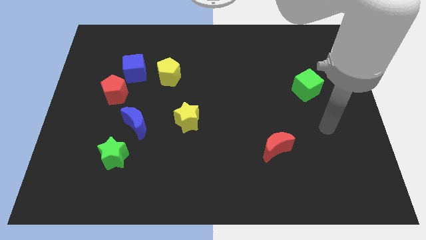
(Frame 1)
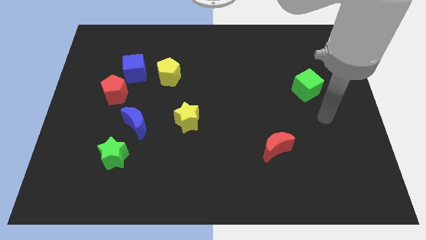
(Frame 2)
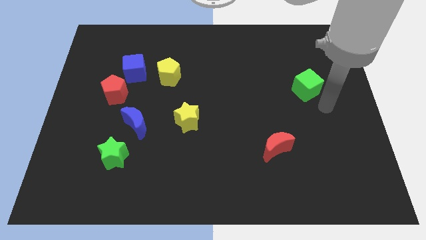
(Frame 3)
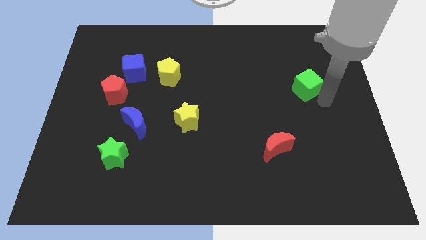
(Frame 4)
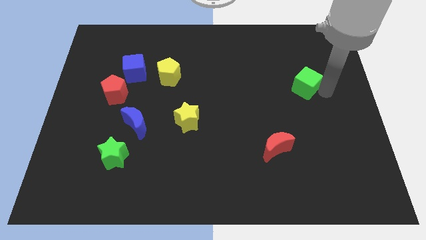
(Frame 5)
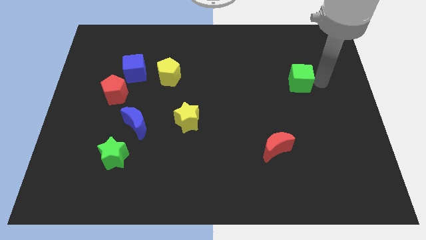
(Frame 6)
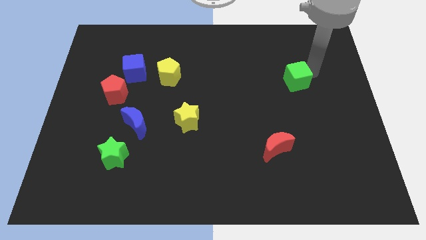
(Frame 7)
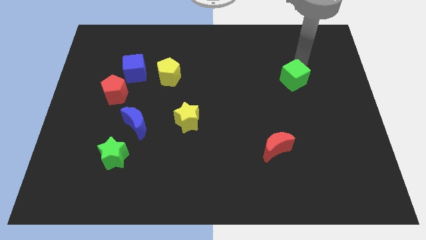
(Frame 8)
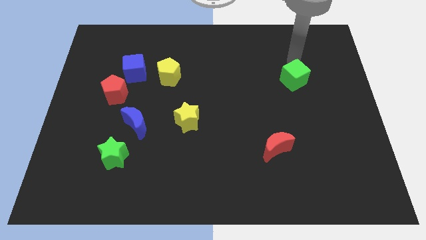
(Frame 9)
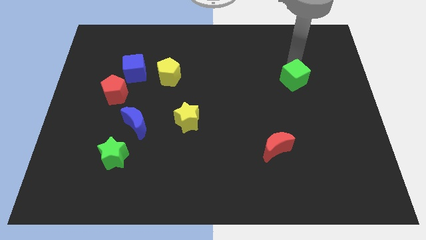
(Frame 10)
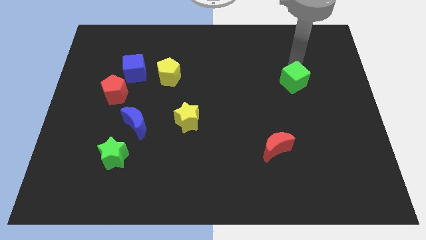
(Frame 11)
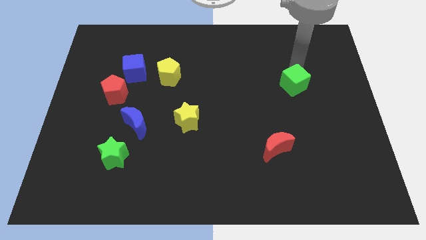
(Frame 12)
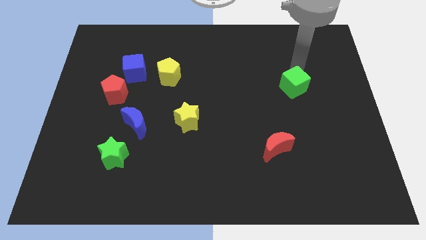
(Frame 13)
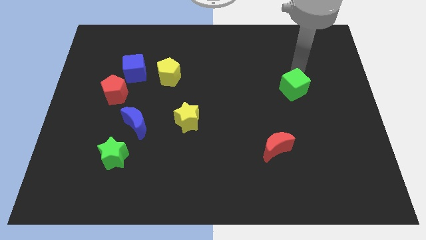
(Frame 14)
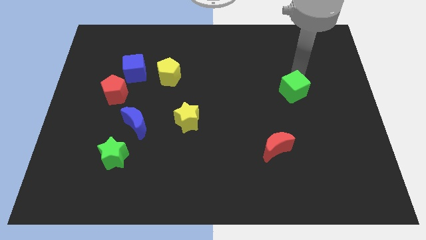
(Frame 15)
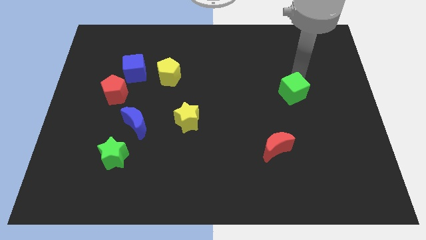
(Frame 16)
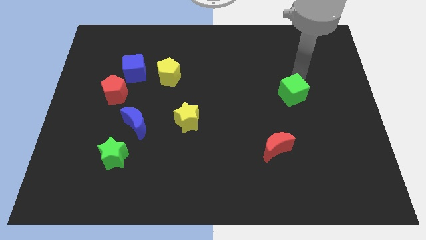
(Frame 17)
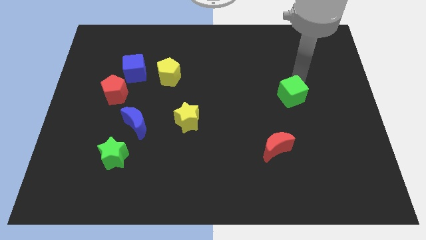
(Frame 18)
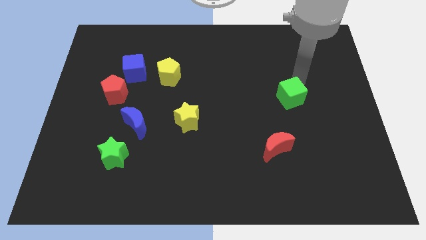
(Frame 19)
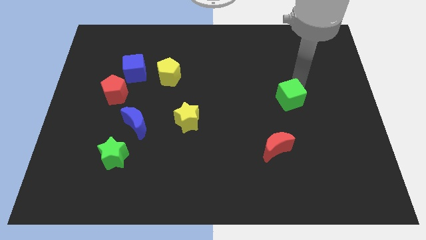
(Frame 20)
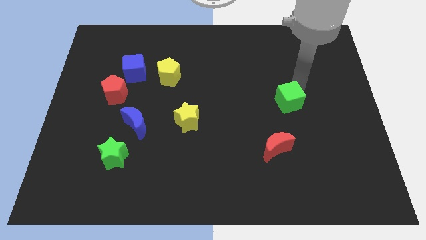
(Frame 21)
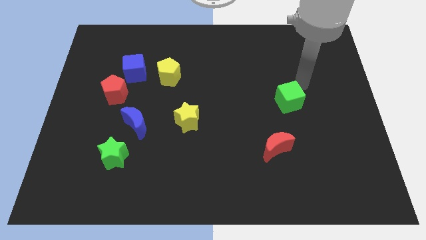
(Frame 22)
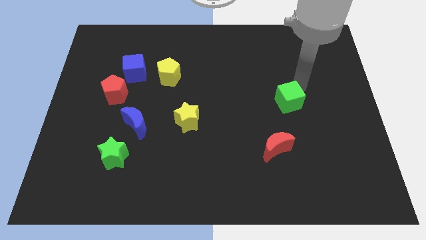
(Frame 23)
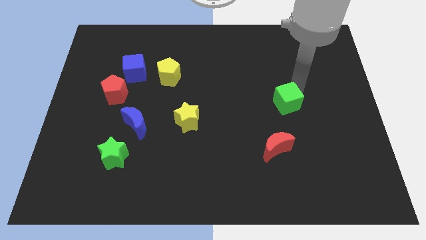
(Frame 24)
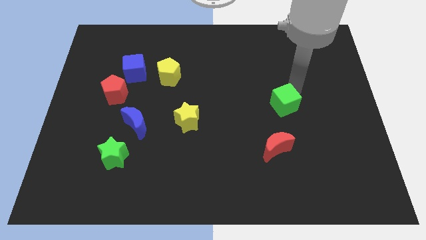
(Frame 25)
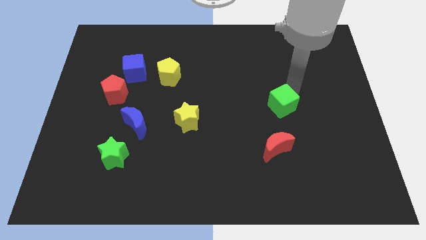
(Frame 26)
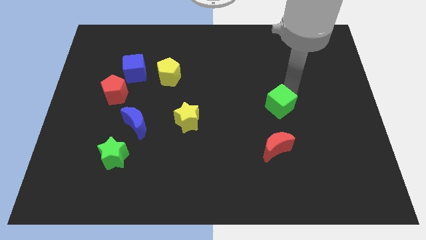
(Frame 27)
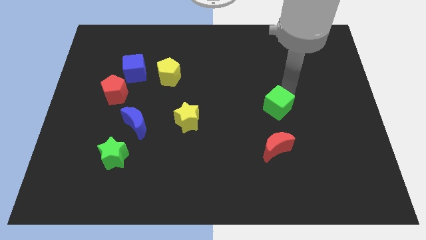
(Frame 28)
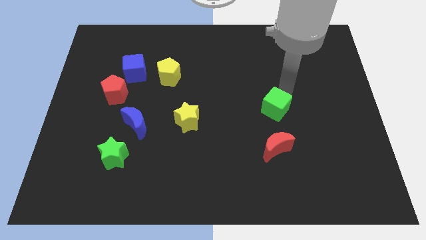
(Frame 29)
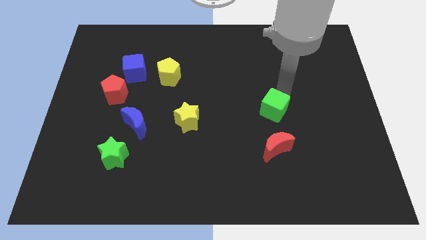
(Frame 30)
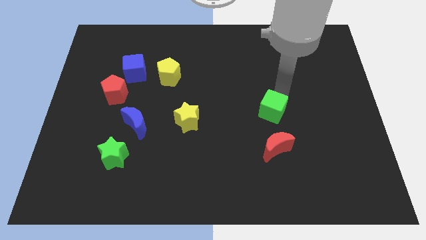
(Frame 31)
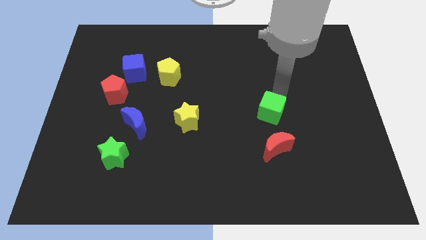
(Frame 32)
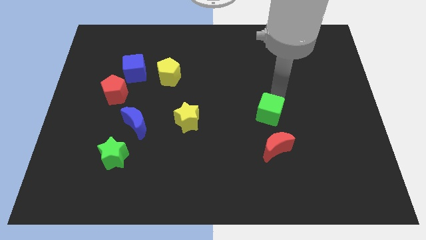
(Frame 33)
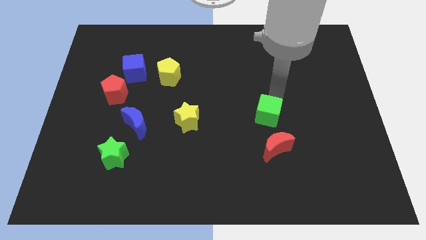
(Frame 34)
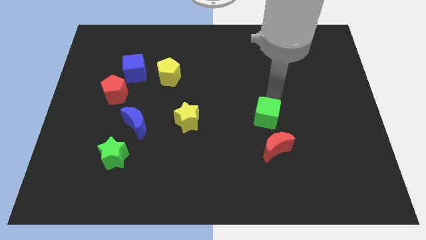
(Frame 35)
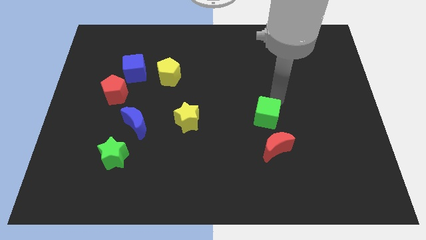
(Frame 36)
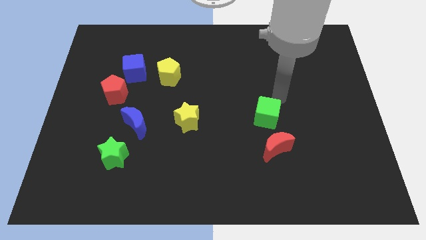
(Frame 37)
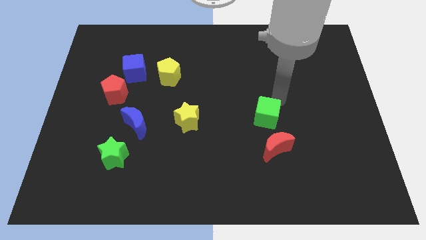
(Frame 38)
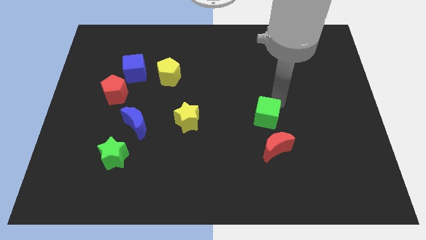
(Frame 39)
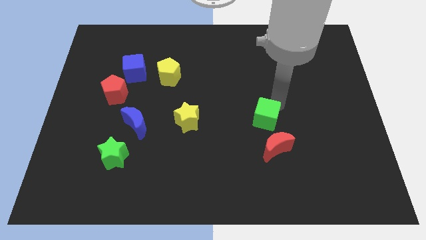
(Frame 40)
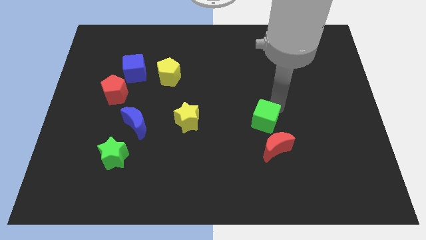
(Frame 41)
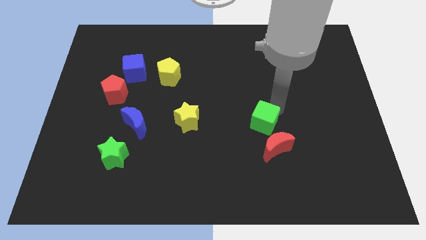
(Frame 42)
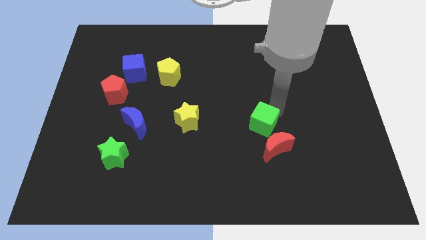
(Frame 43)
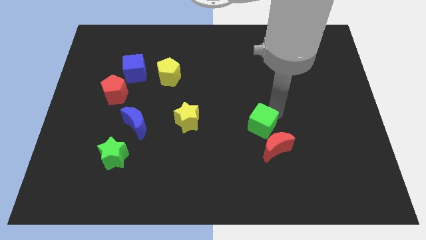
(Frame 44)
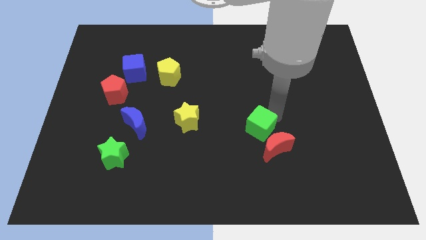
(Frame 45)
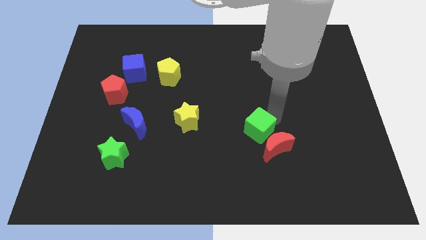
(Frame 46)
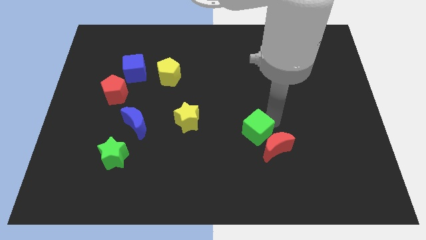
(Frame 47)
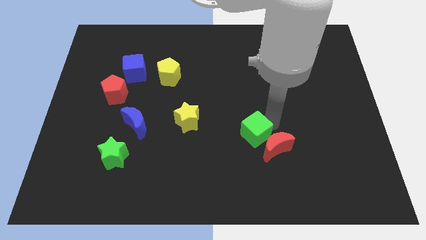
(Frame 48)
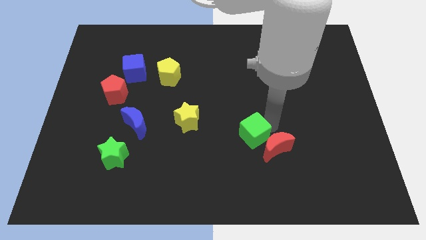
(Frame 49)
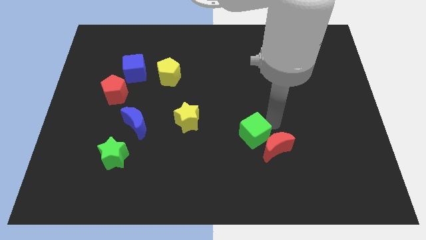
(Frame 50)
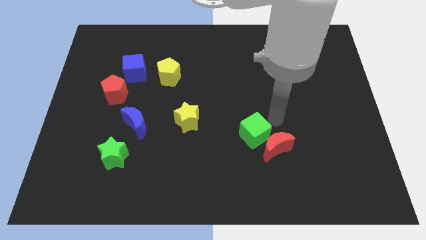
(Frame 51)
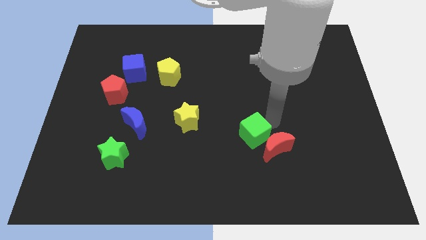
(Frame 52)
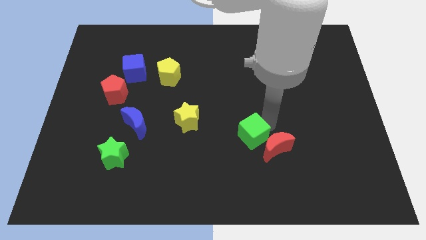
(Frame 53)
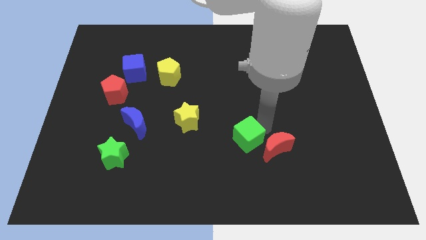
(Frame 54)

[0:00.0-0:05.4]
move the green cube downwards and left diagonally

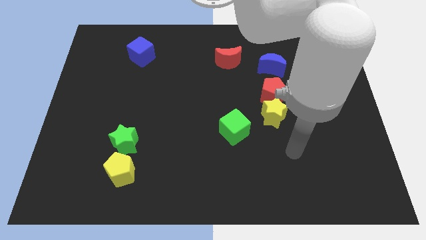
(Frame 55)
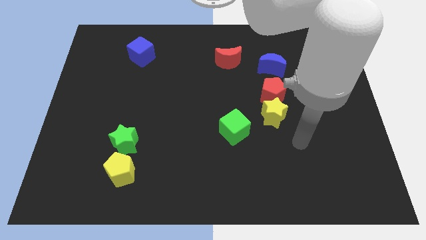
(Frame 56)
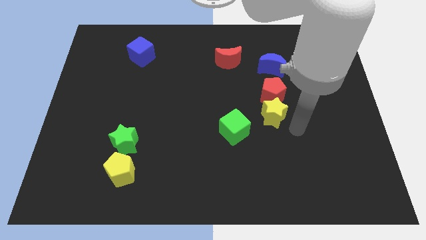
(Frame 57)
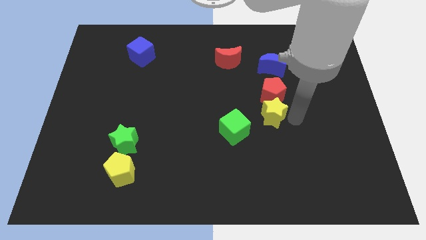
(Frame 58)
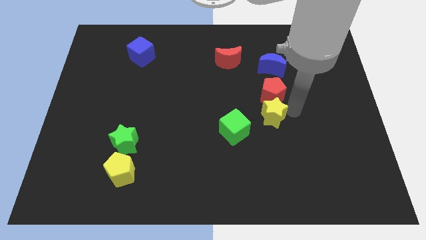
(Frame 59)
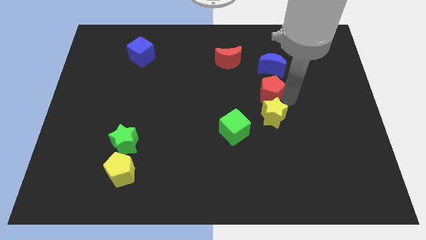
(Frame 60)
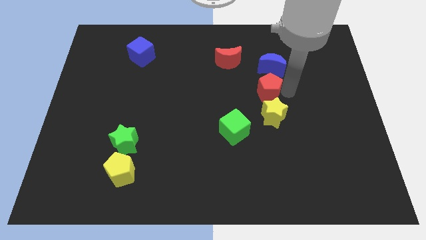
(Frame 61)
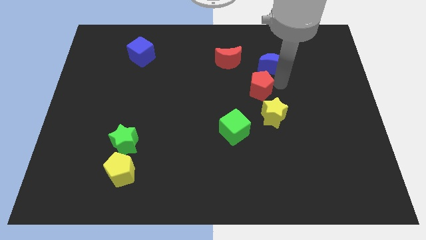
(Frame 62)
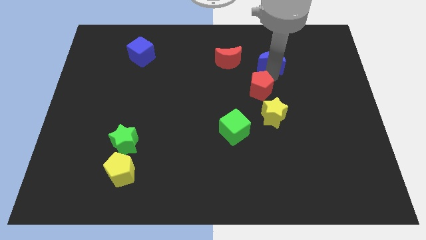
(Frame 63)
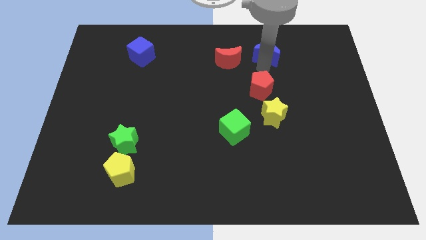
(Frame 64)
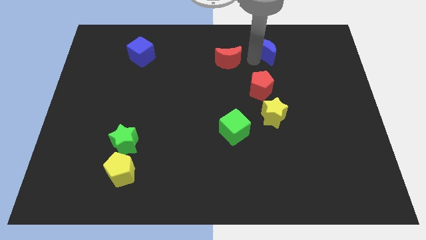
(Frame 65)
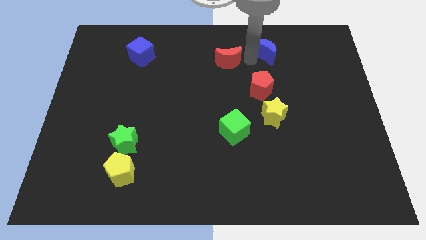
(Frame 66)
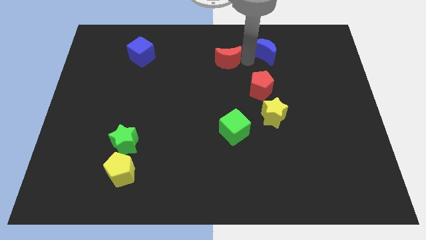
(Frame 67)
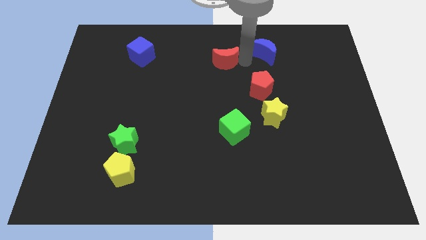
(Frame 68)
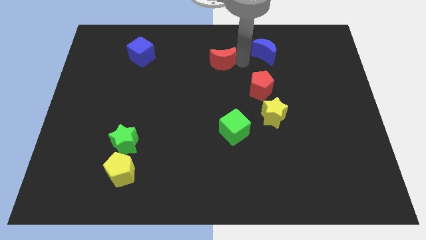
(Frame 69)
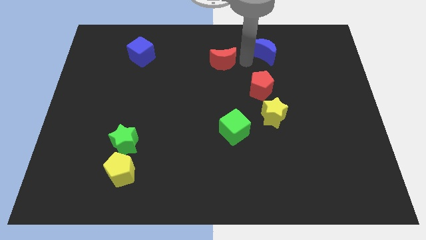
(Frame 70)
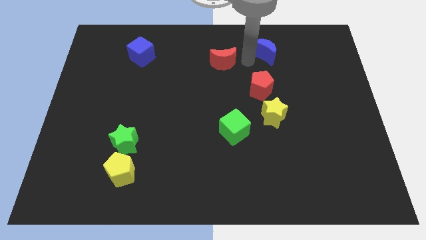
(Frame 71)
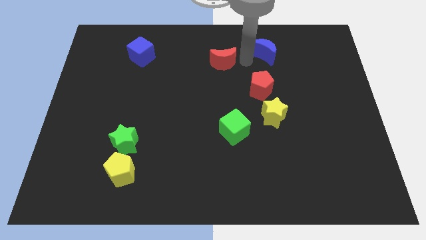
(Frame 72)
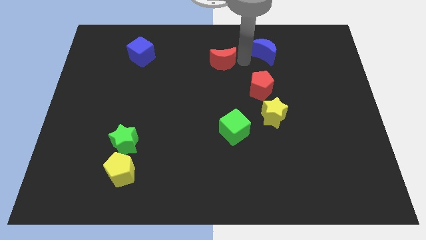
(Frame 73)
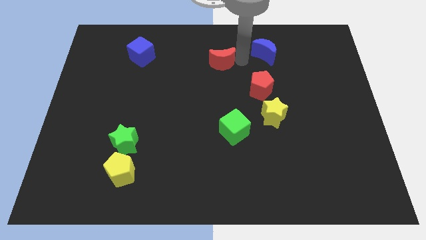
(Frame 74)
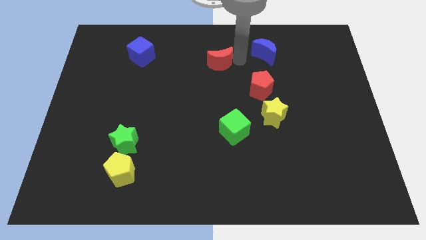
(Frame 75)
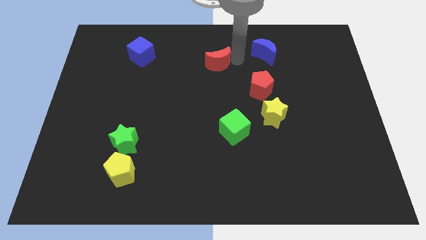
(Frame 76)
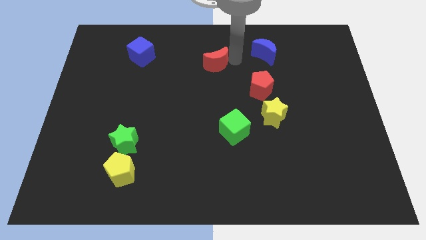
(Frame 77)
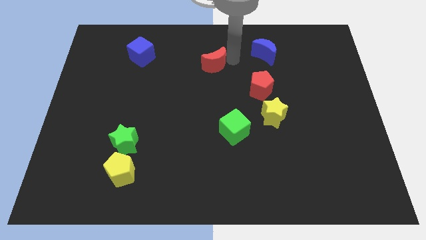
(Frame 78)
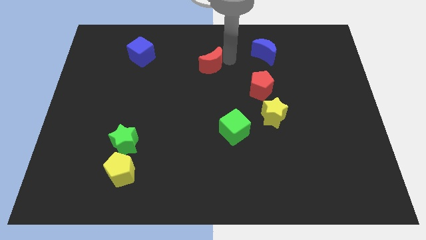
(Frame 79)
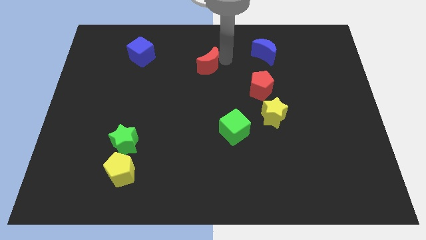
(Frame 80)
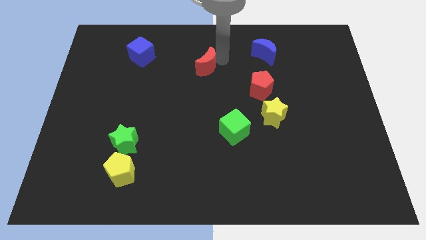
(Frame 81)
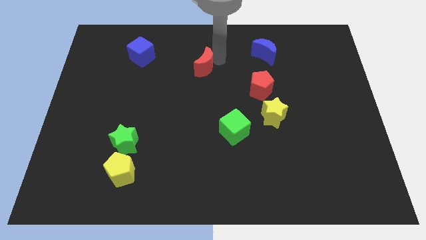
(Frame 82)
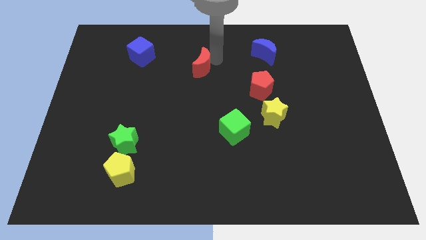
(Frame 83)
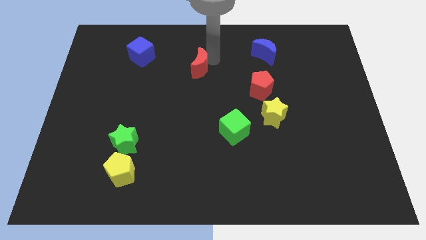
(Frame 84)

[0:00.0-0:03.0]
slide the red moon a bit to the left
